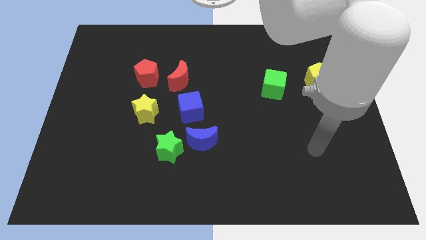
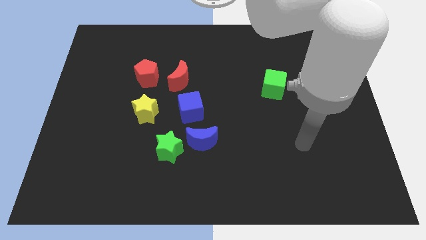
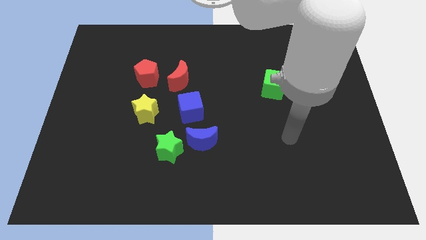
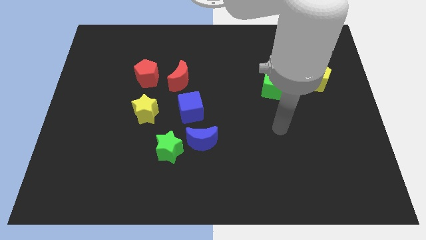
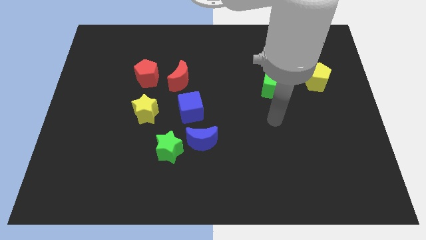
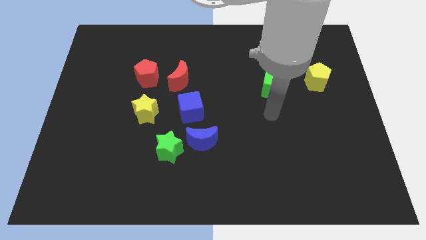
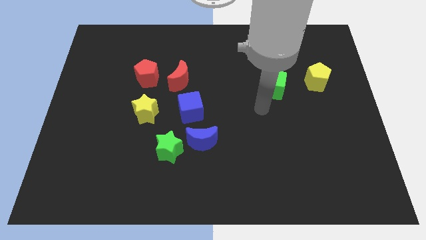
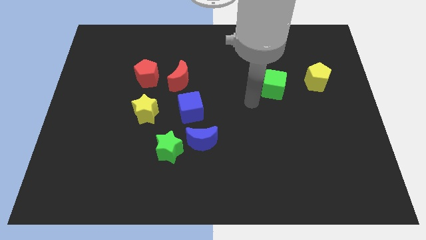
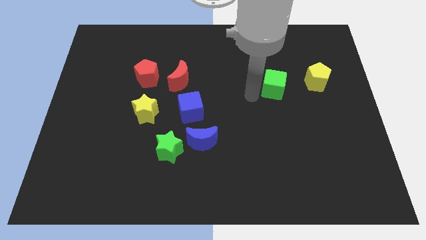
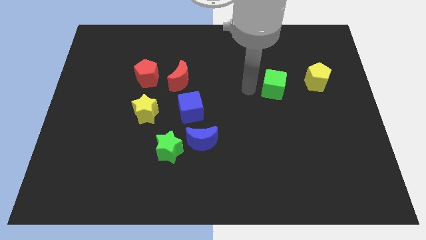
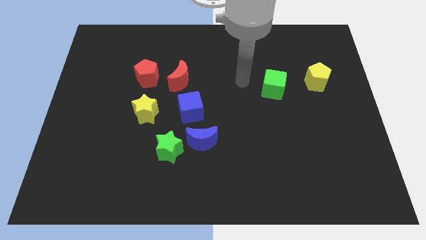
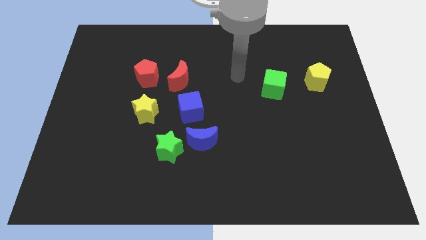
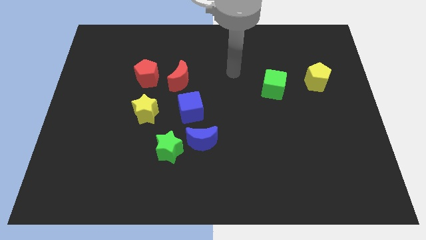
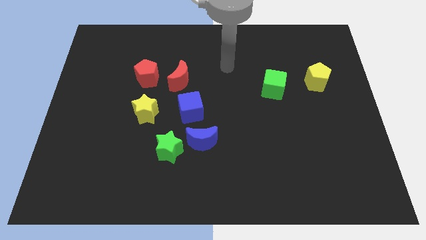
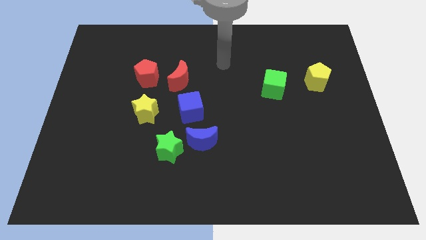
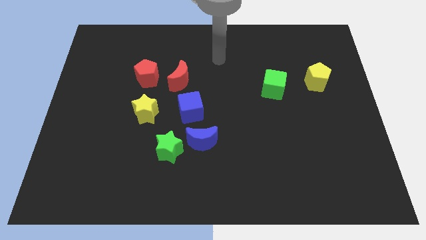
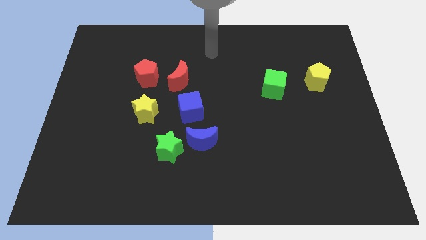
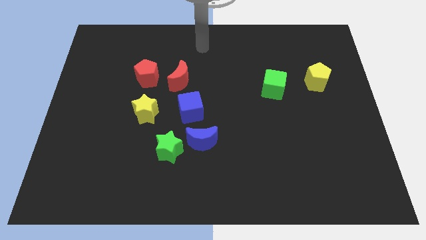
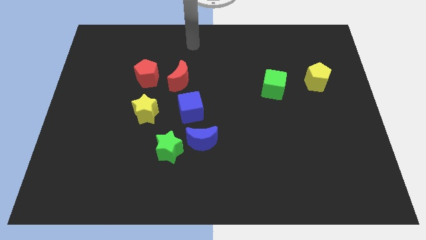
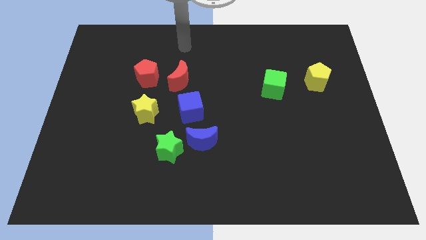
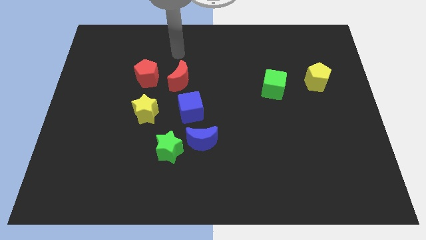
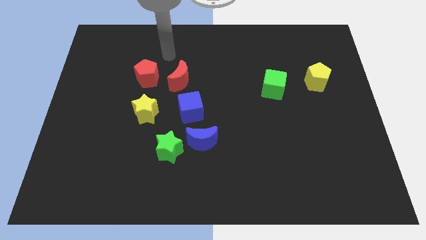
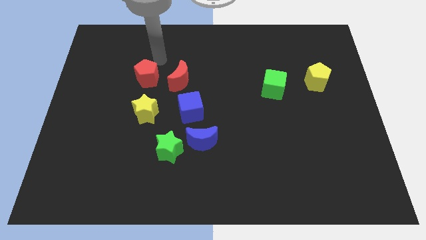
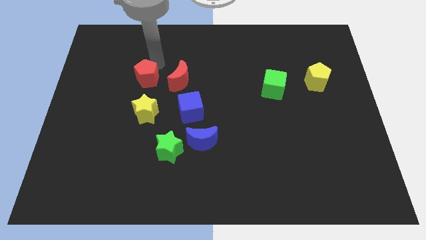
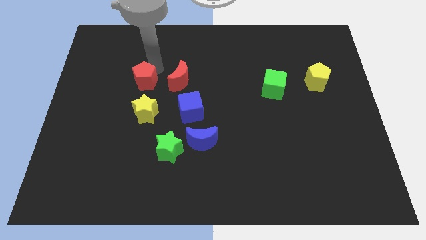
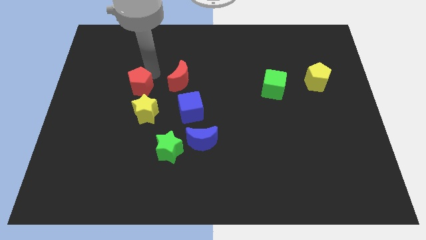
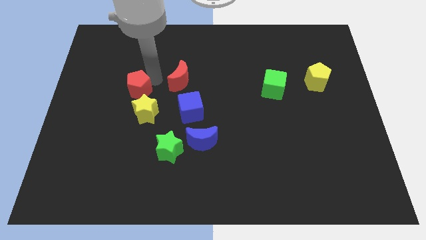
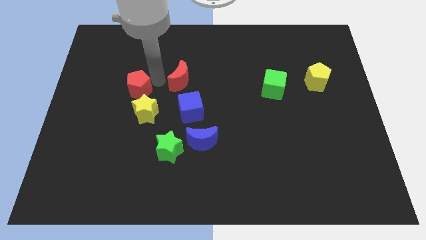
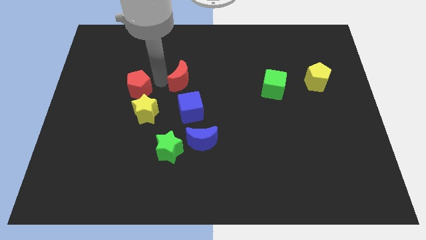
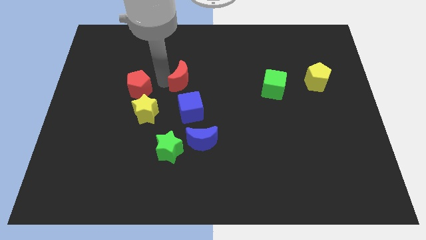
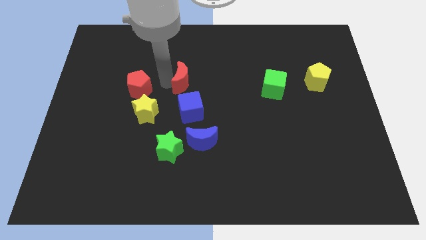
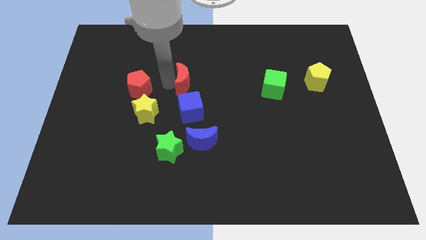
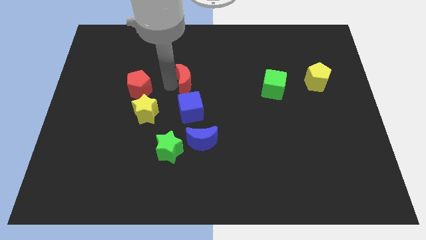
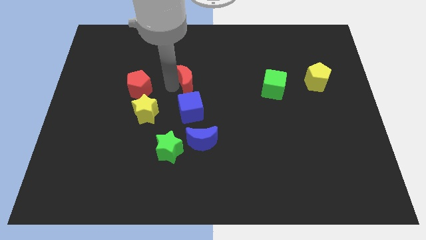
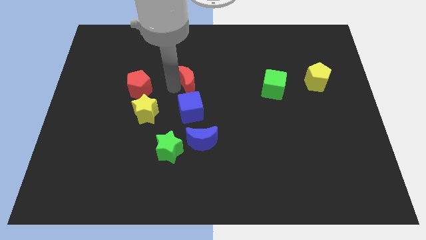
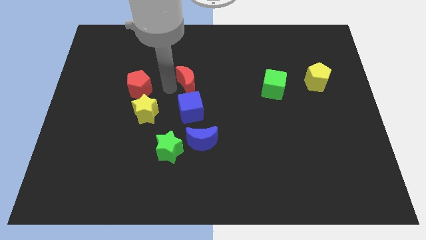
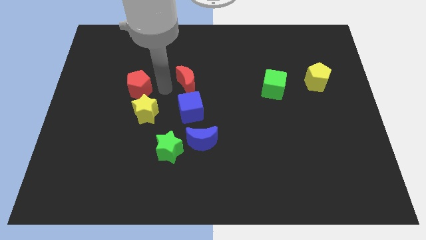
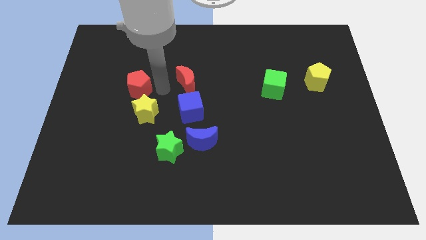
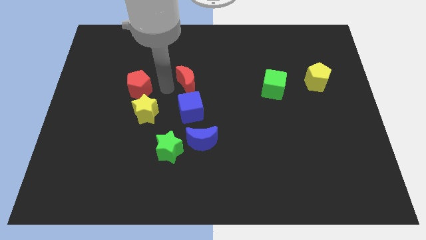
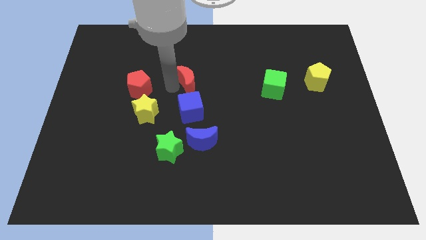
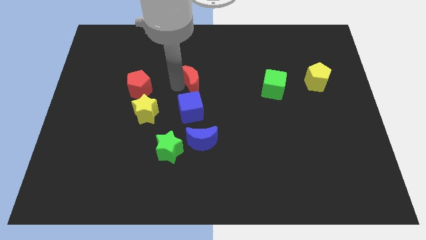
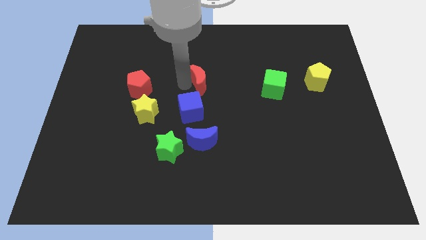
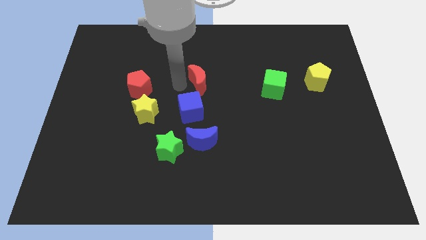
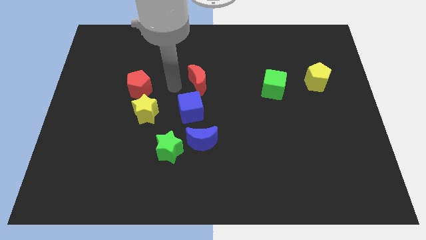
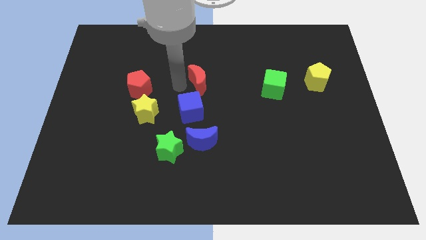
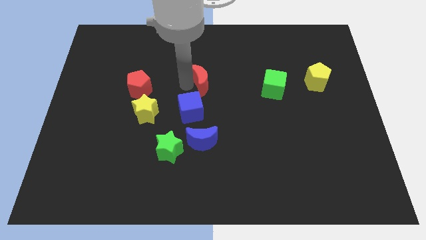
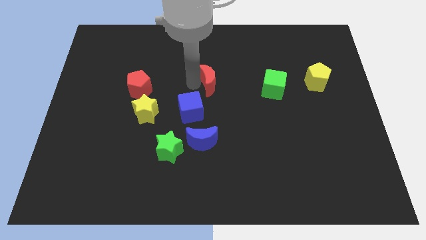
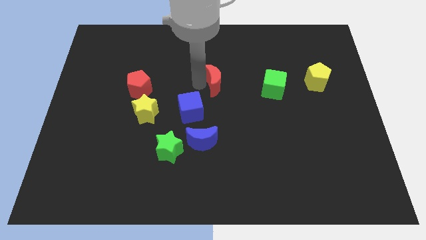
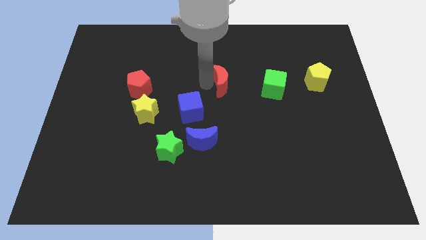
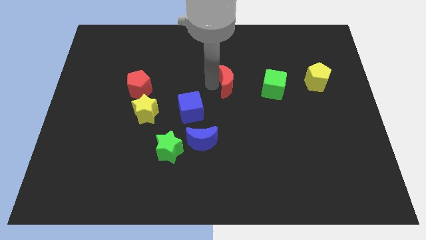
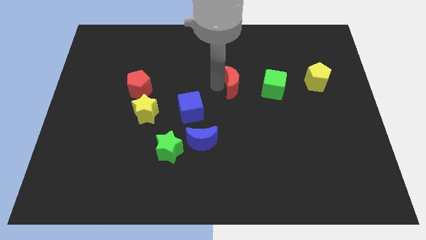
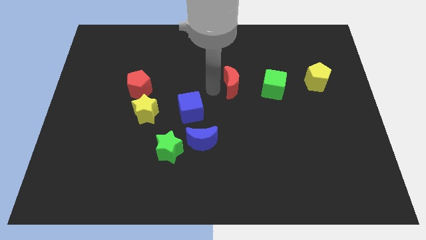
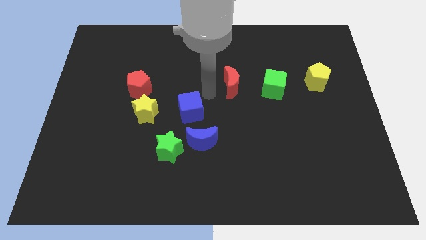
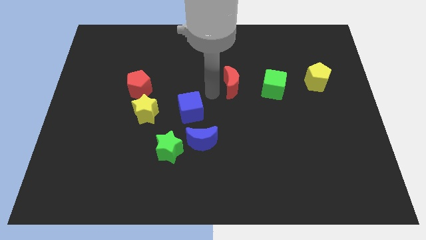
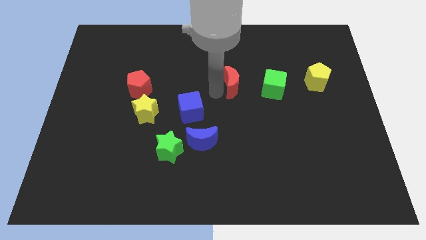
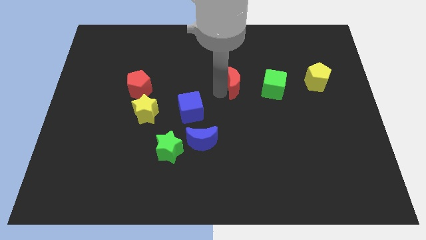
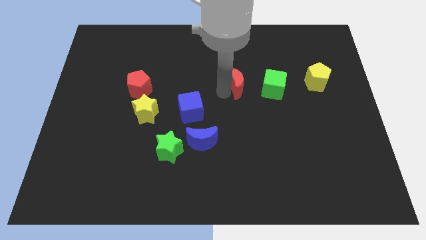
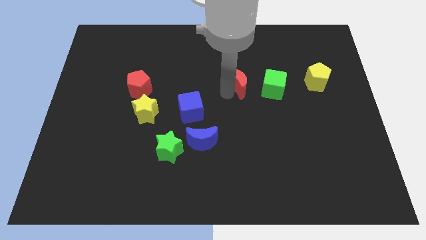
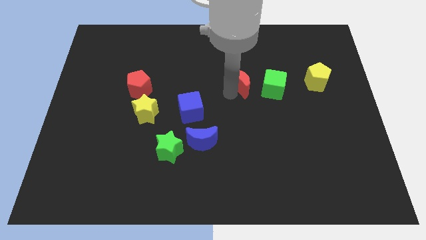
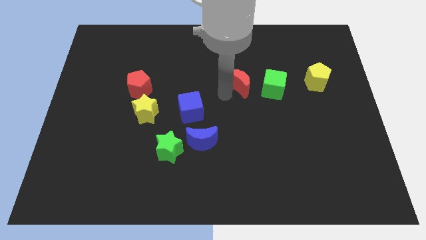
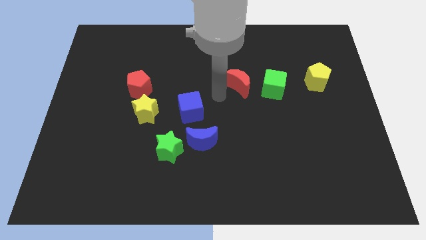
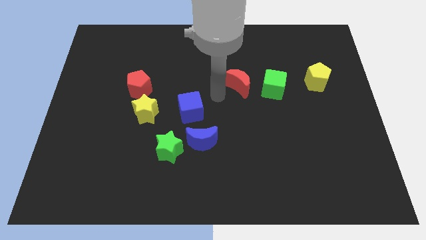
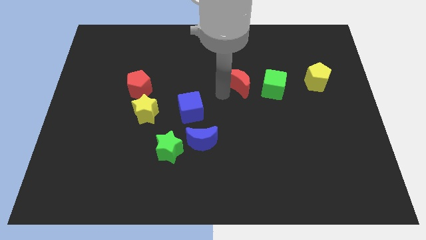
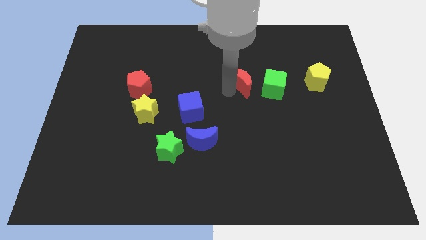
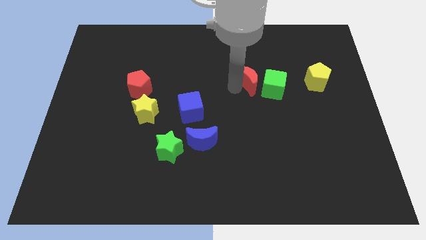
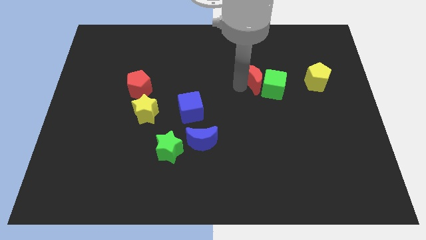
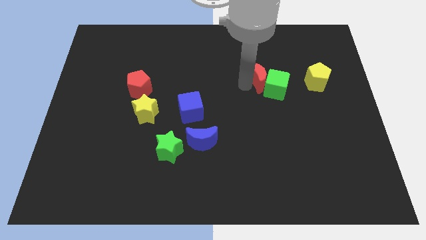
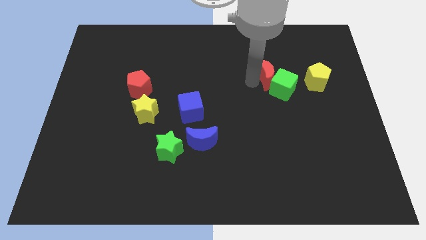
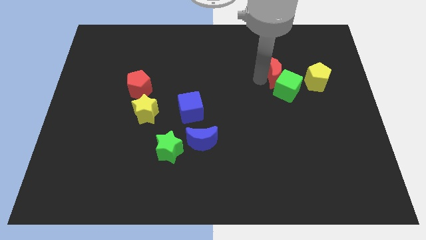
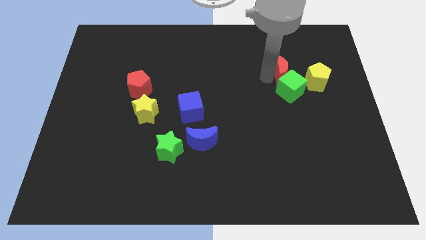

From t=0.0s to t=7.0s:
move the red moon to the top left of the yellow pentagon
